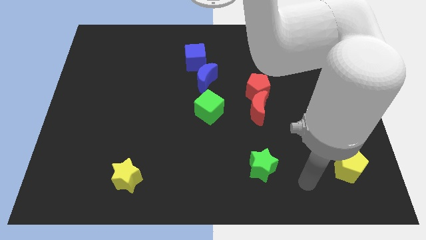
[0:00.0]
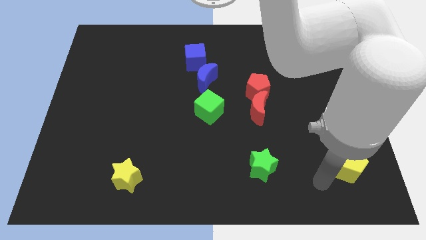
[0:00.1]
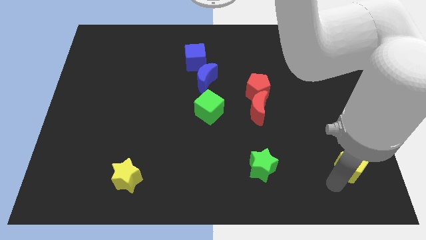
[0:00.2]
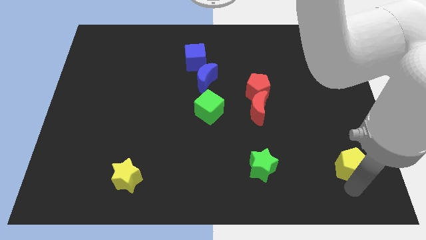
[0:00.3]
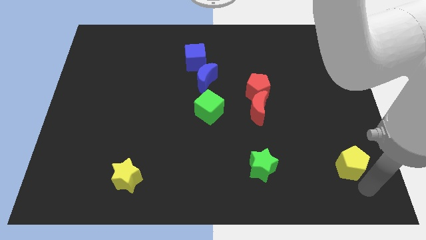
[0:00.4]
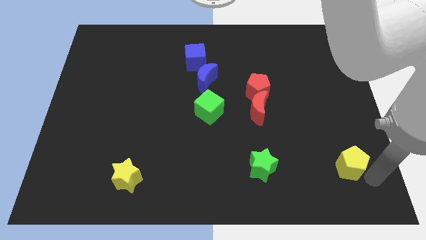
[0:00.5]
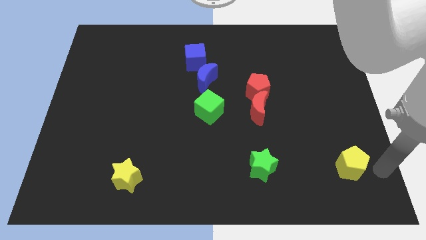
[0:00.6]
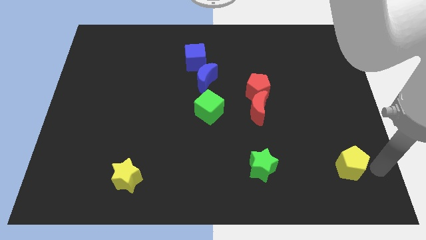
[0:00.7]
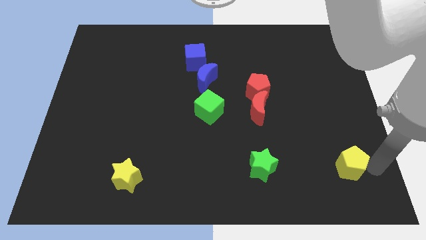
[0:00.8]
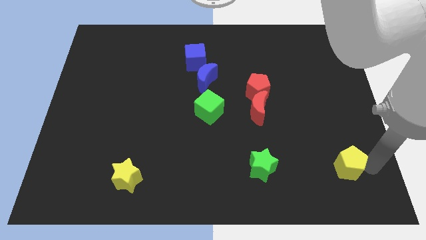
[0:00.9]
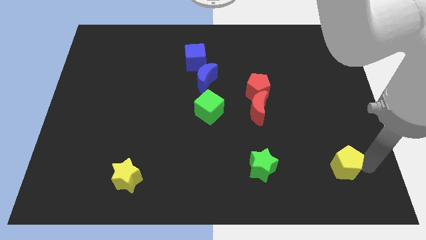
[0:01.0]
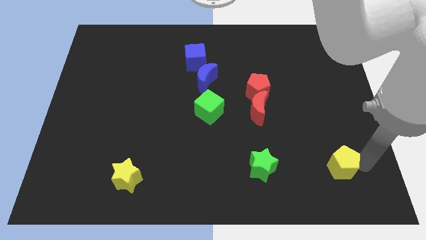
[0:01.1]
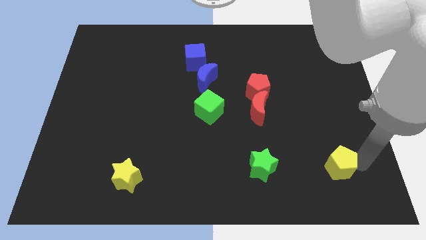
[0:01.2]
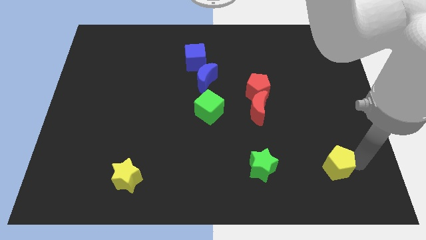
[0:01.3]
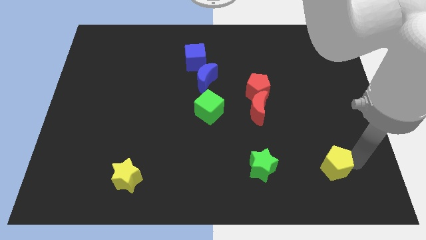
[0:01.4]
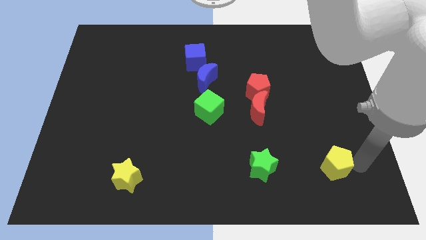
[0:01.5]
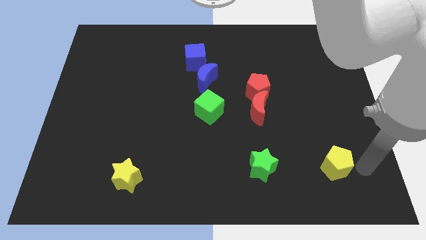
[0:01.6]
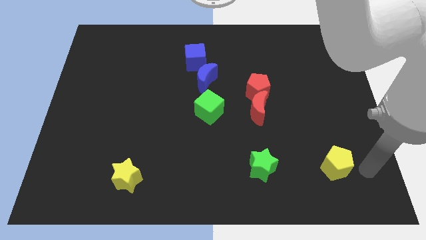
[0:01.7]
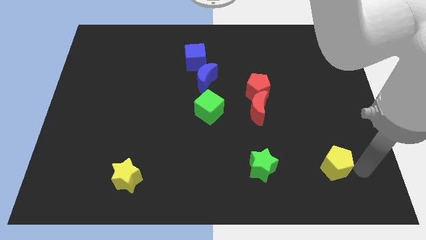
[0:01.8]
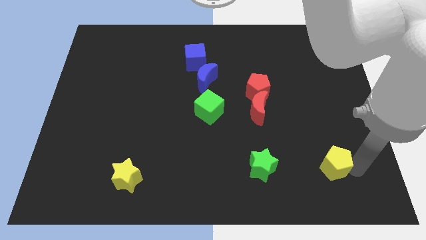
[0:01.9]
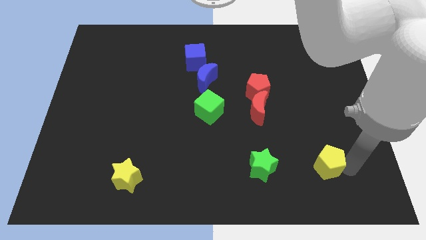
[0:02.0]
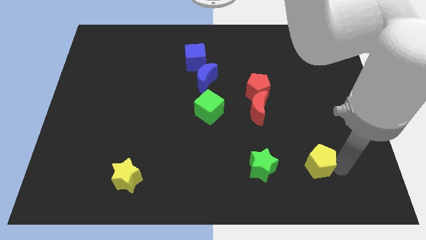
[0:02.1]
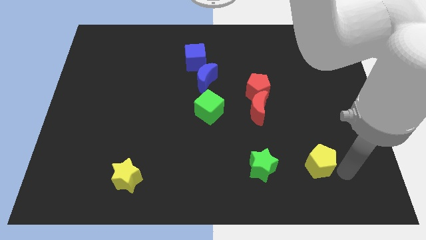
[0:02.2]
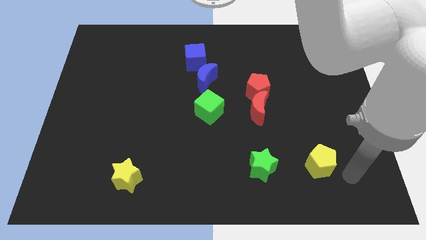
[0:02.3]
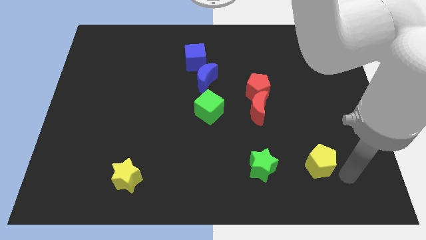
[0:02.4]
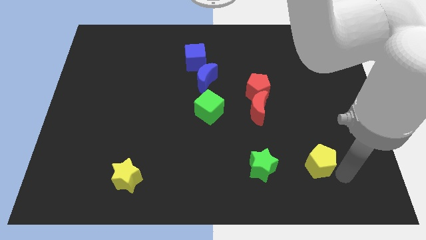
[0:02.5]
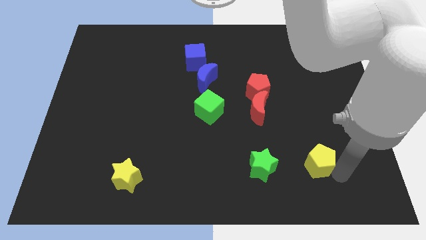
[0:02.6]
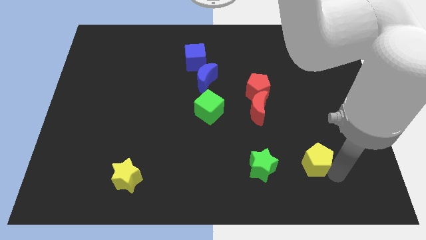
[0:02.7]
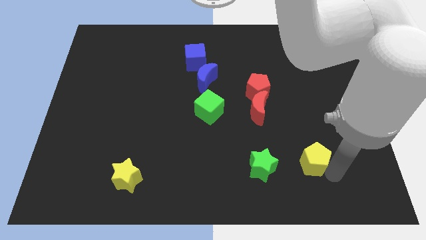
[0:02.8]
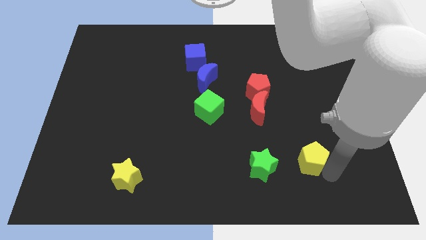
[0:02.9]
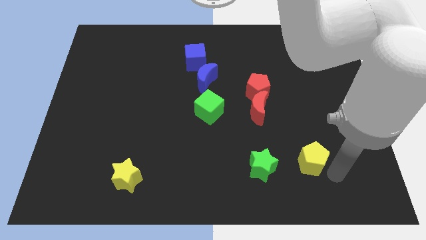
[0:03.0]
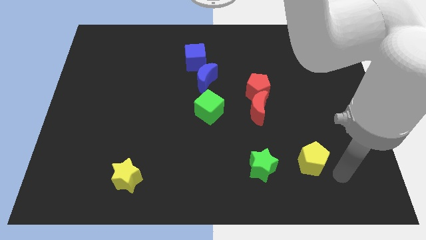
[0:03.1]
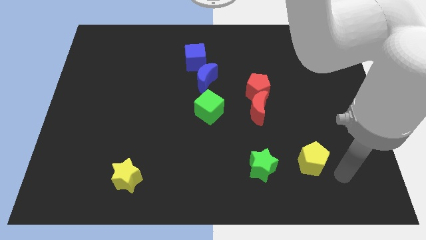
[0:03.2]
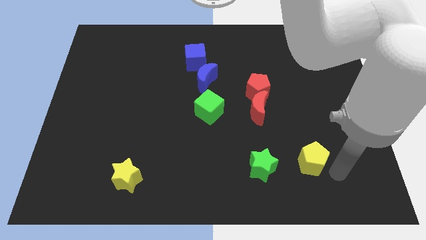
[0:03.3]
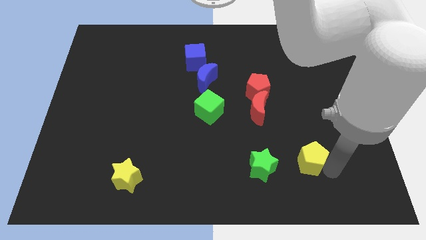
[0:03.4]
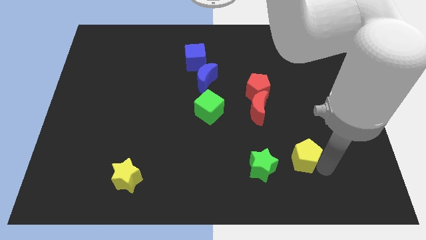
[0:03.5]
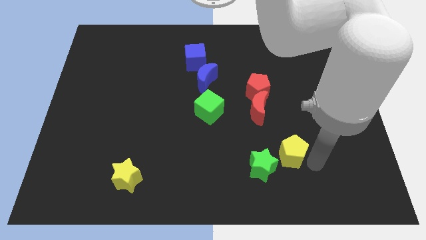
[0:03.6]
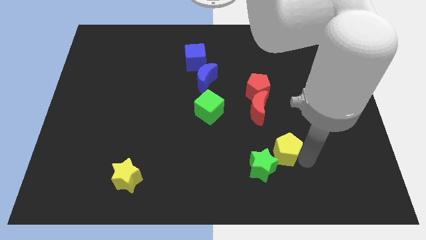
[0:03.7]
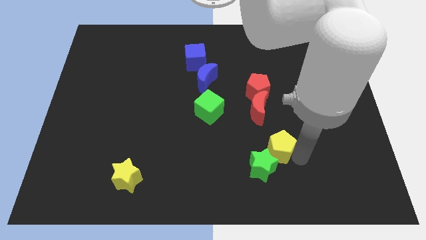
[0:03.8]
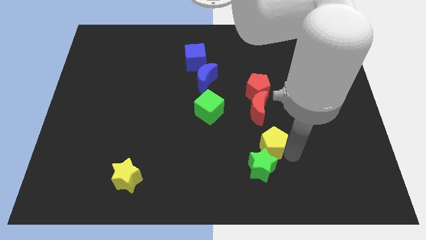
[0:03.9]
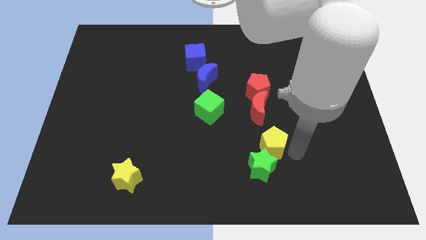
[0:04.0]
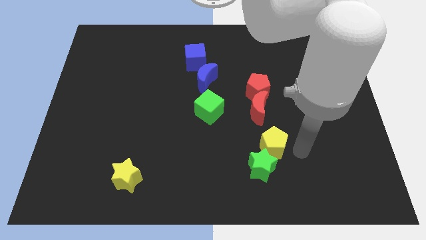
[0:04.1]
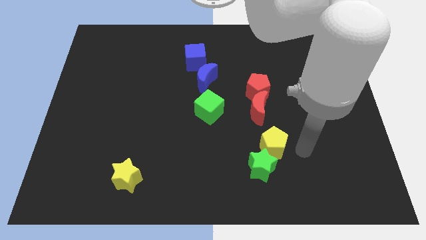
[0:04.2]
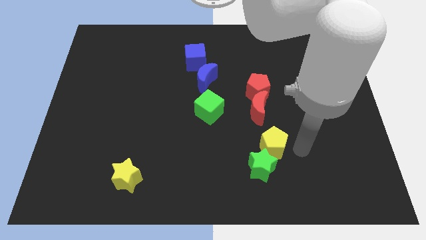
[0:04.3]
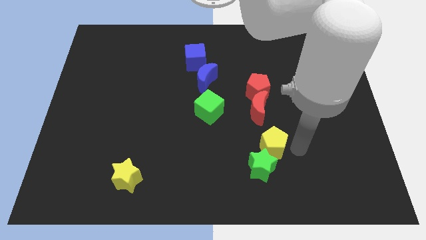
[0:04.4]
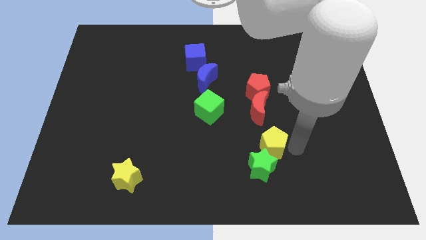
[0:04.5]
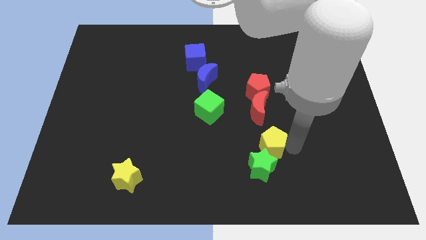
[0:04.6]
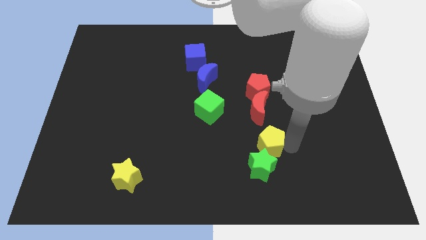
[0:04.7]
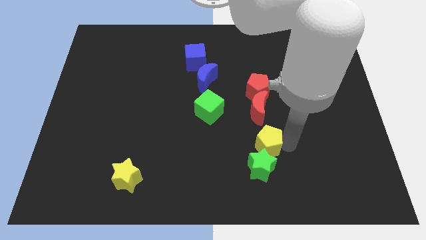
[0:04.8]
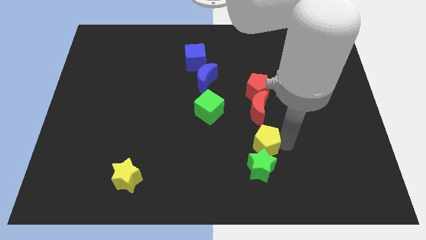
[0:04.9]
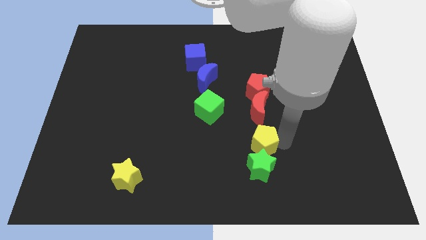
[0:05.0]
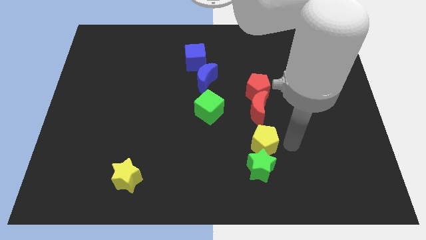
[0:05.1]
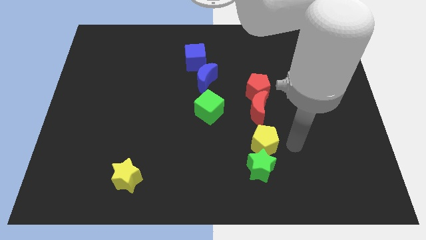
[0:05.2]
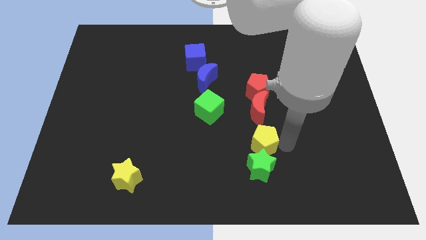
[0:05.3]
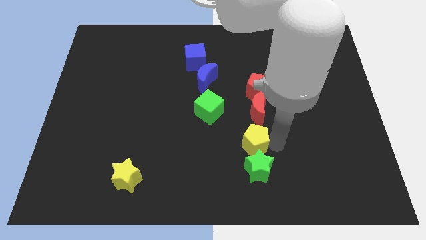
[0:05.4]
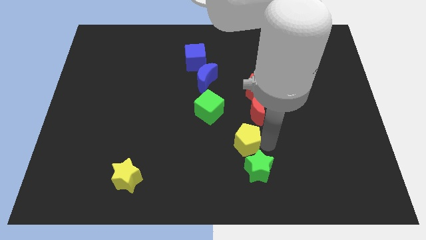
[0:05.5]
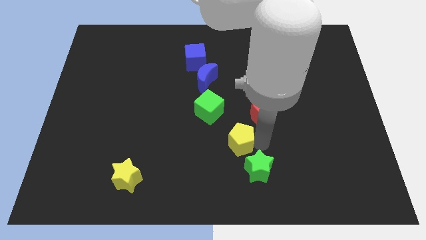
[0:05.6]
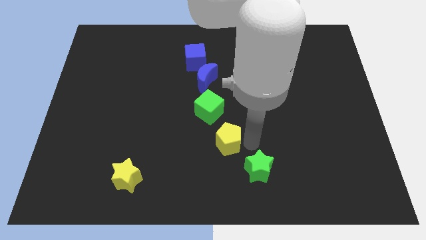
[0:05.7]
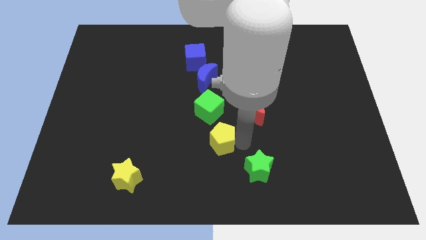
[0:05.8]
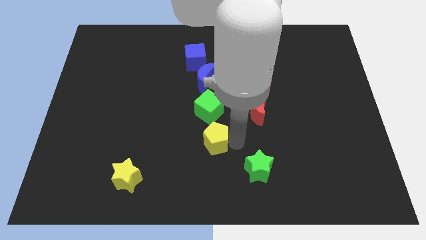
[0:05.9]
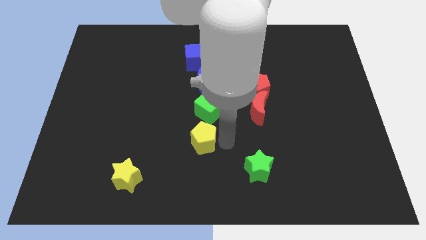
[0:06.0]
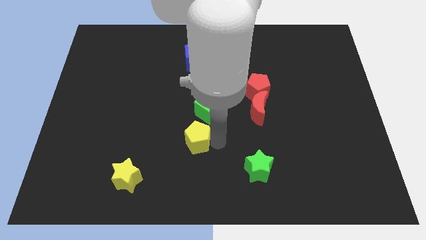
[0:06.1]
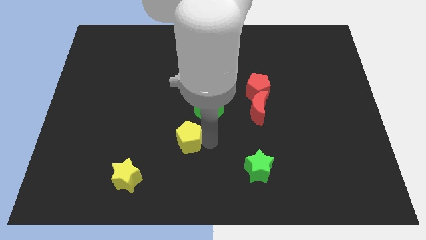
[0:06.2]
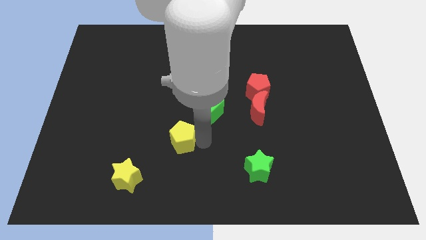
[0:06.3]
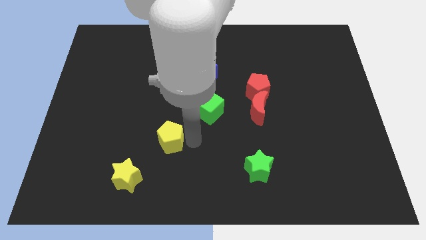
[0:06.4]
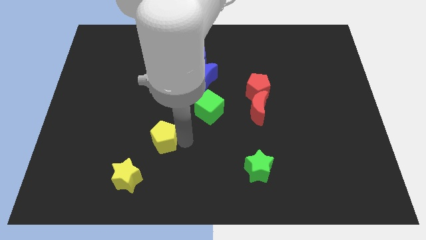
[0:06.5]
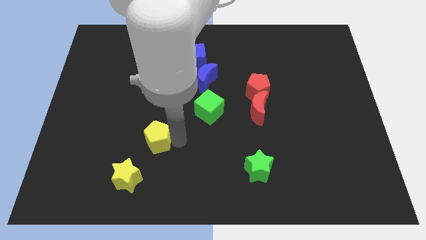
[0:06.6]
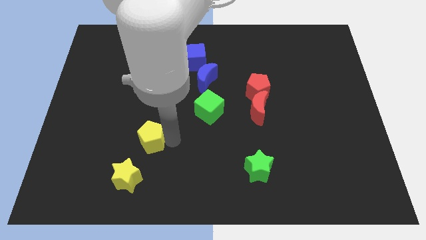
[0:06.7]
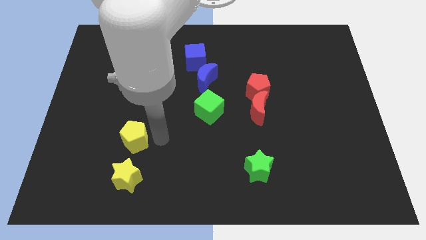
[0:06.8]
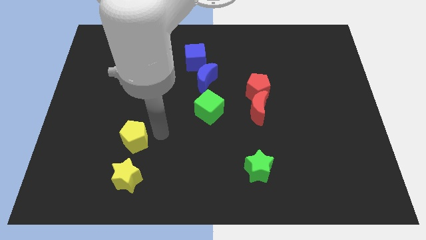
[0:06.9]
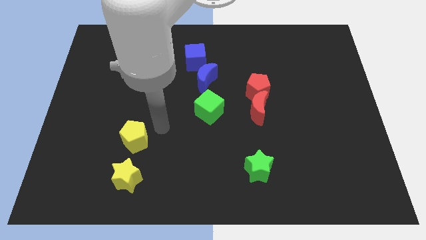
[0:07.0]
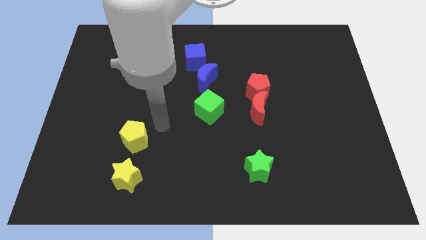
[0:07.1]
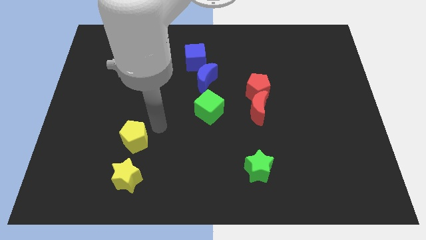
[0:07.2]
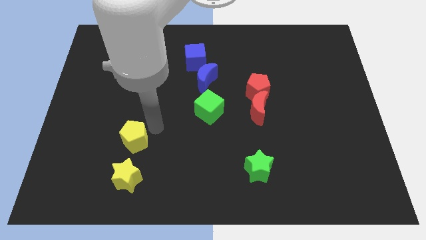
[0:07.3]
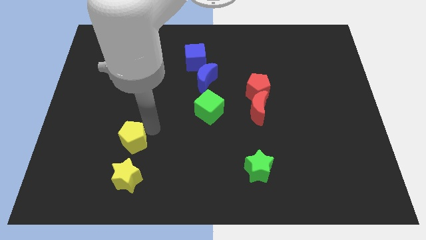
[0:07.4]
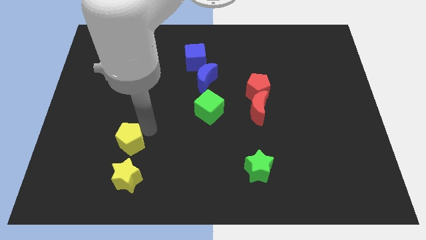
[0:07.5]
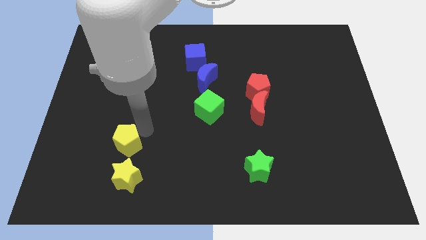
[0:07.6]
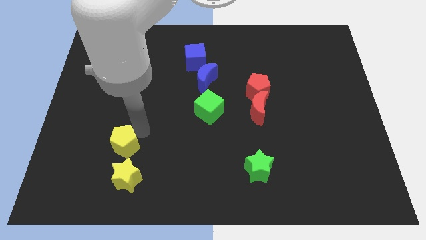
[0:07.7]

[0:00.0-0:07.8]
slide the yellow pentagon to the top left side of the yellow star
